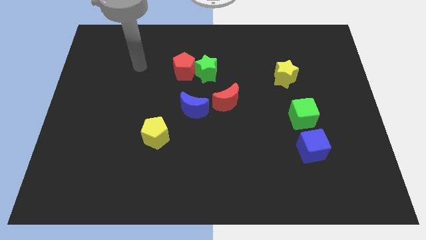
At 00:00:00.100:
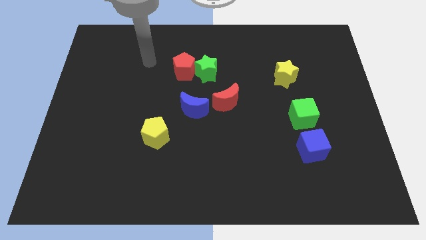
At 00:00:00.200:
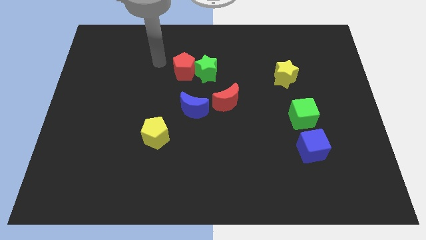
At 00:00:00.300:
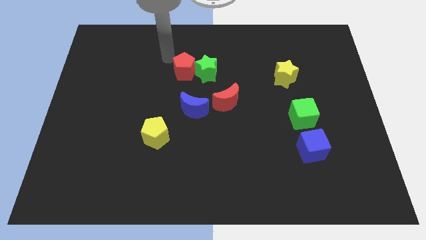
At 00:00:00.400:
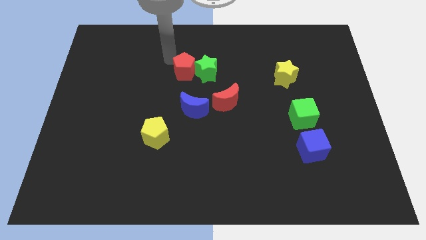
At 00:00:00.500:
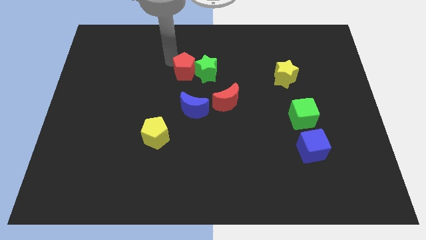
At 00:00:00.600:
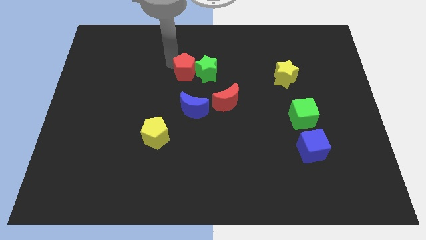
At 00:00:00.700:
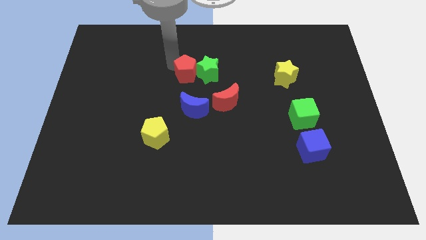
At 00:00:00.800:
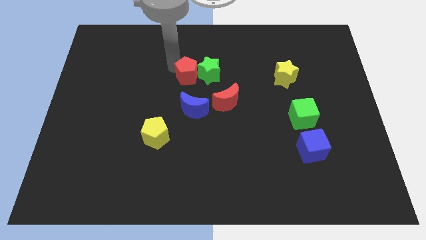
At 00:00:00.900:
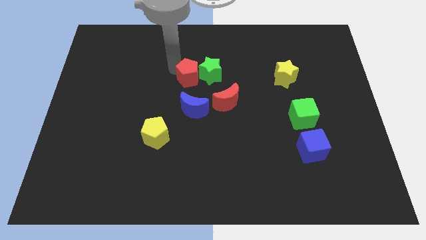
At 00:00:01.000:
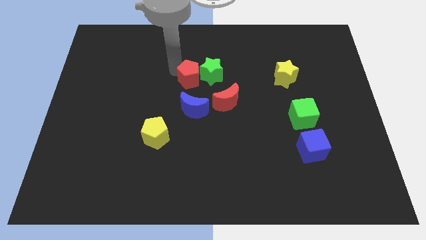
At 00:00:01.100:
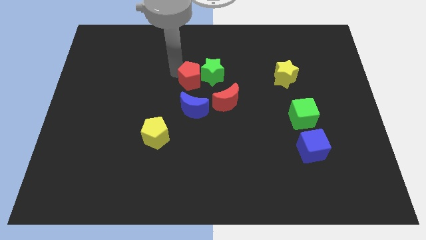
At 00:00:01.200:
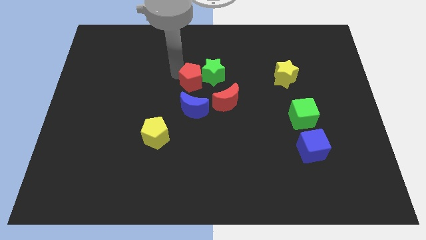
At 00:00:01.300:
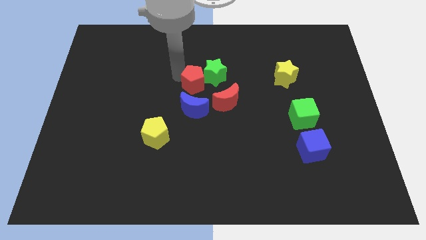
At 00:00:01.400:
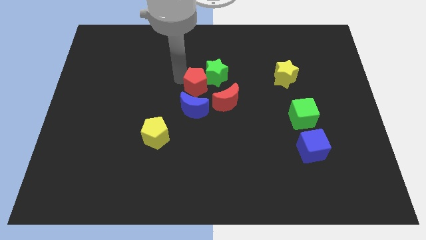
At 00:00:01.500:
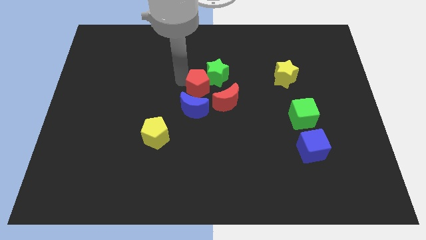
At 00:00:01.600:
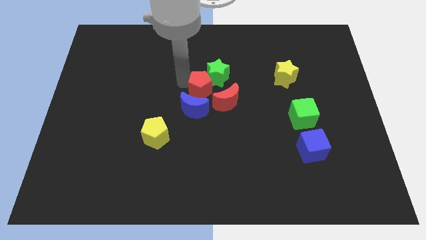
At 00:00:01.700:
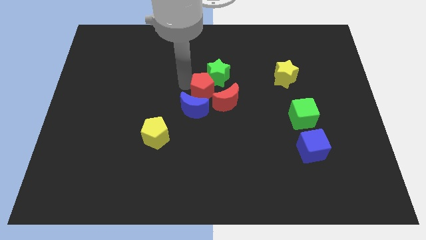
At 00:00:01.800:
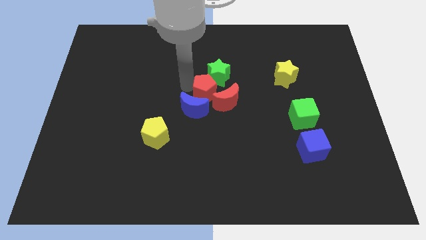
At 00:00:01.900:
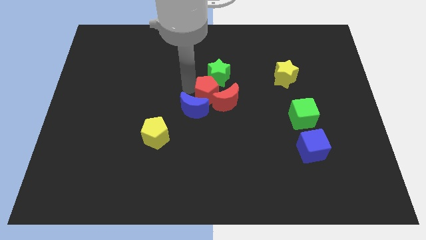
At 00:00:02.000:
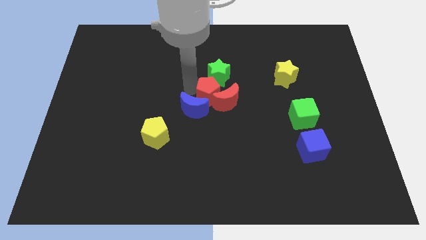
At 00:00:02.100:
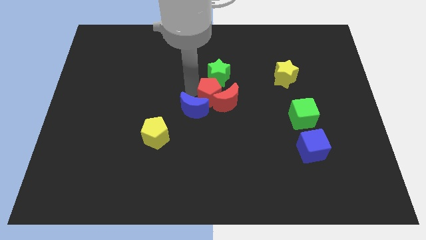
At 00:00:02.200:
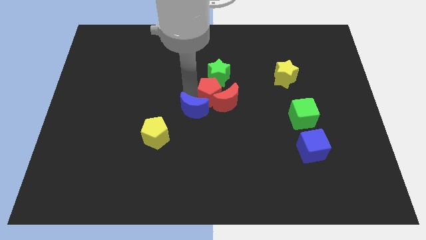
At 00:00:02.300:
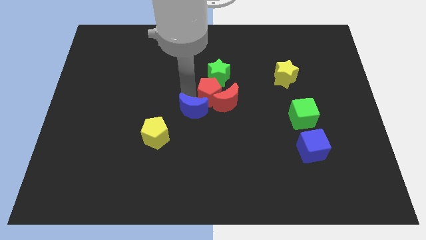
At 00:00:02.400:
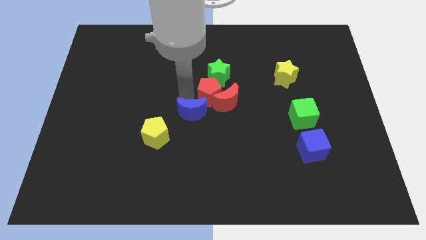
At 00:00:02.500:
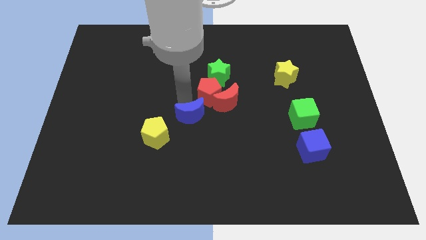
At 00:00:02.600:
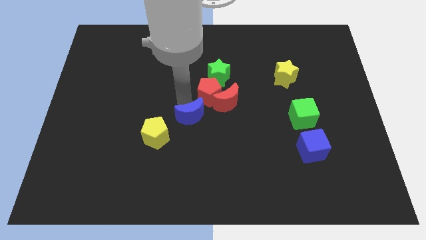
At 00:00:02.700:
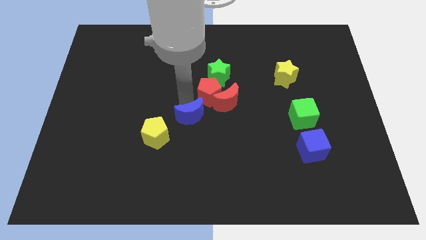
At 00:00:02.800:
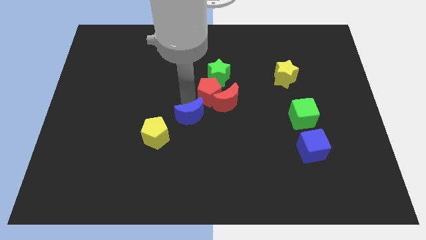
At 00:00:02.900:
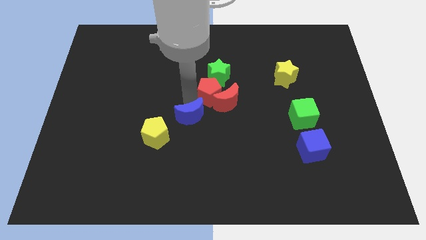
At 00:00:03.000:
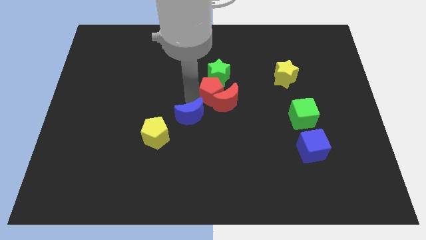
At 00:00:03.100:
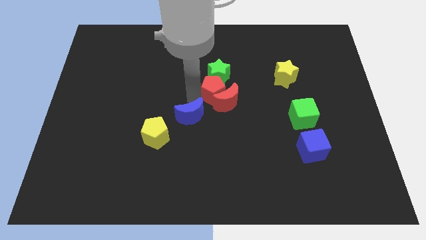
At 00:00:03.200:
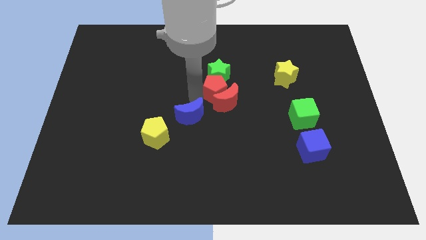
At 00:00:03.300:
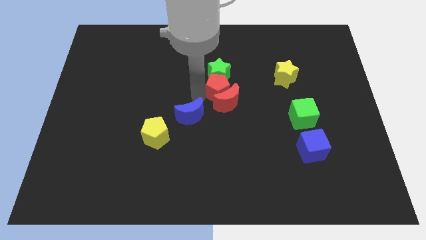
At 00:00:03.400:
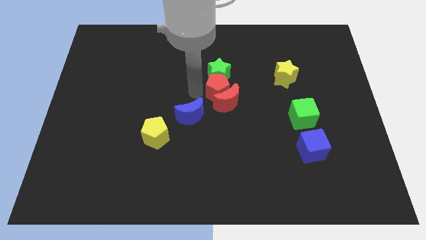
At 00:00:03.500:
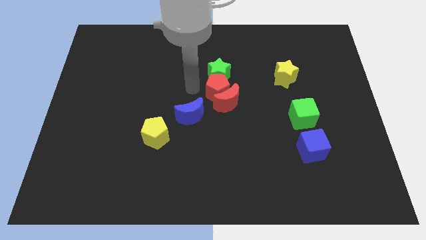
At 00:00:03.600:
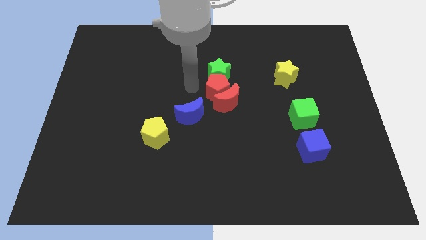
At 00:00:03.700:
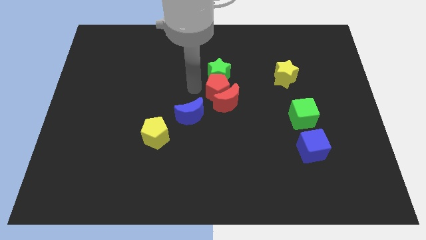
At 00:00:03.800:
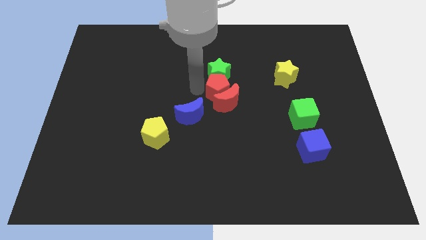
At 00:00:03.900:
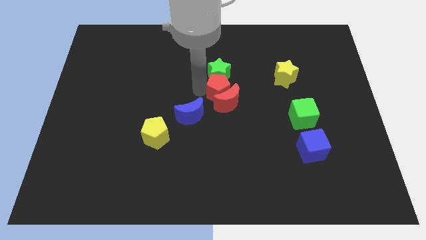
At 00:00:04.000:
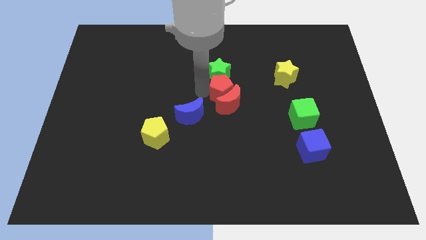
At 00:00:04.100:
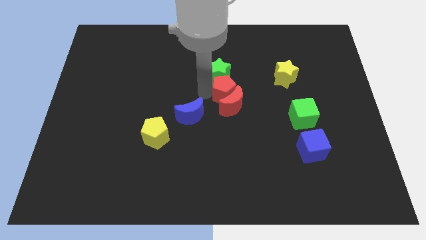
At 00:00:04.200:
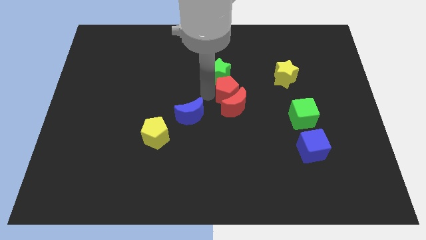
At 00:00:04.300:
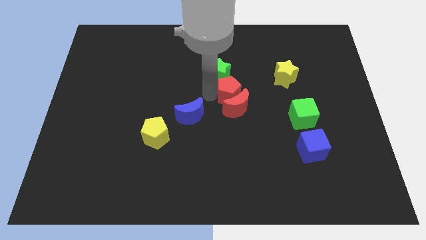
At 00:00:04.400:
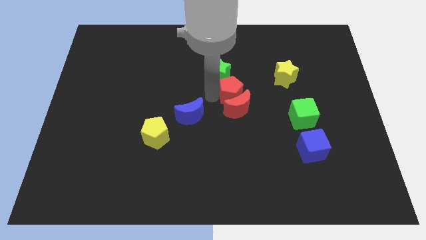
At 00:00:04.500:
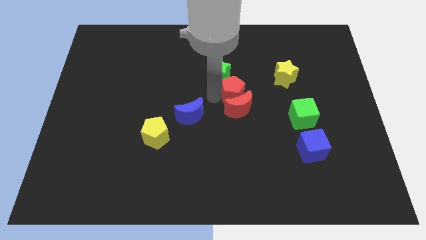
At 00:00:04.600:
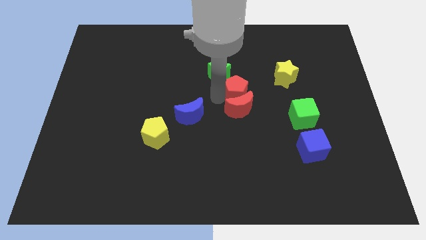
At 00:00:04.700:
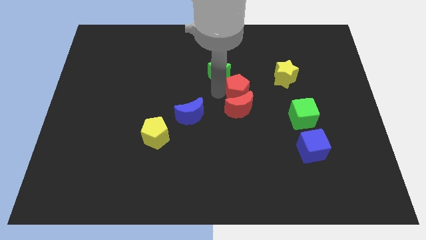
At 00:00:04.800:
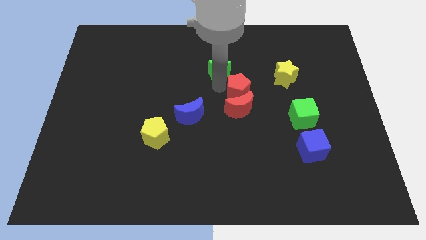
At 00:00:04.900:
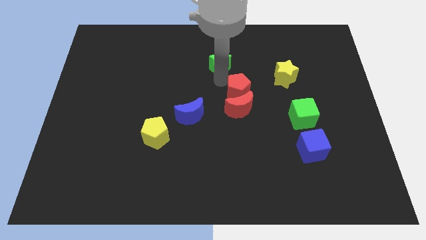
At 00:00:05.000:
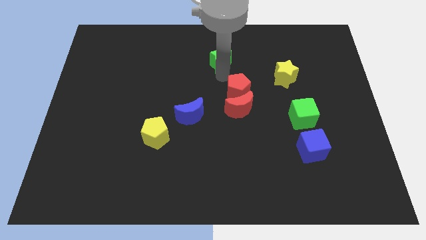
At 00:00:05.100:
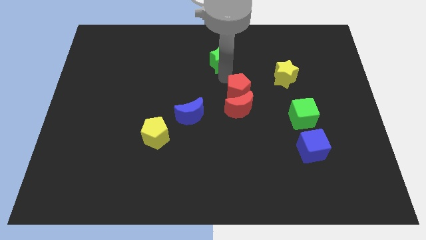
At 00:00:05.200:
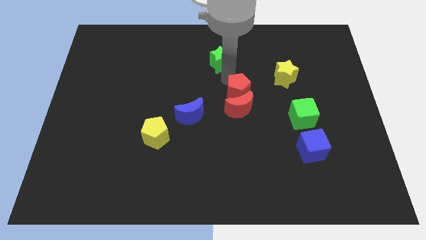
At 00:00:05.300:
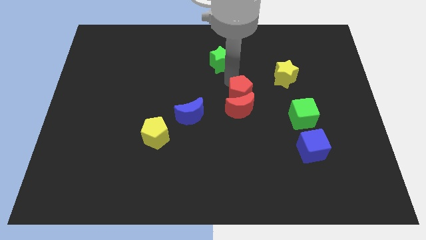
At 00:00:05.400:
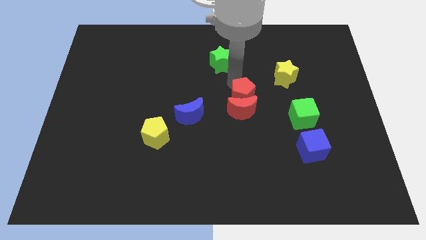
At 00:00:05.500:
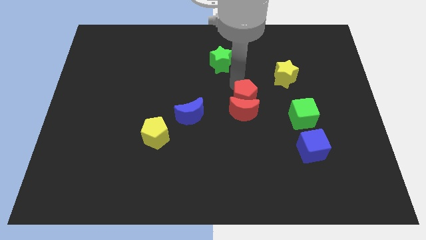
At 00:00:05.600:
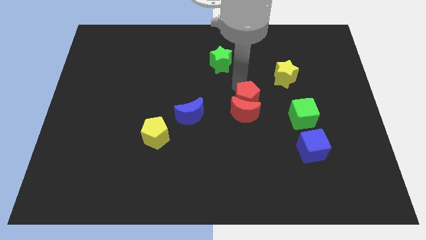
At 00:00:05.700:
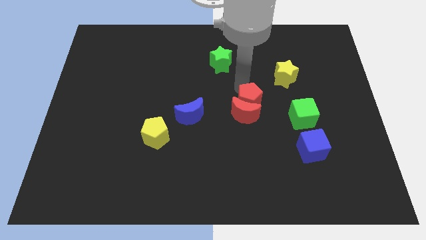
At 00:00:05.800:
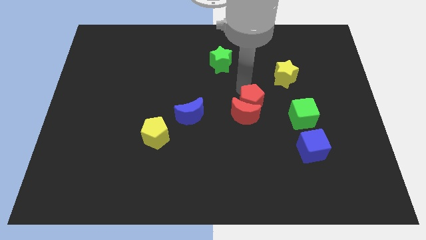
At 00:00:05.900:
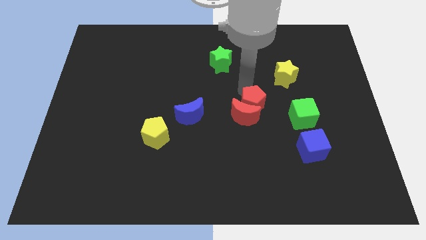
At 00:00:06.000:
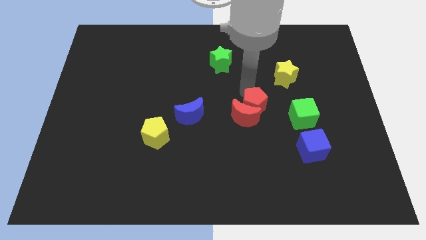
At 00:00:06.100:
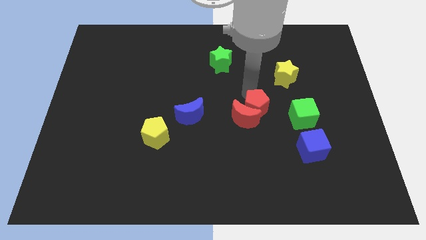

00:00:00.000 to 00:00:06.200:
move the red pentagon downwards and right

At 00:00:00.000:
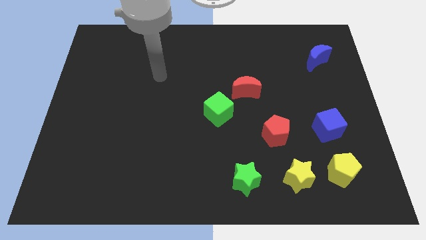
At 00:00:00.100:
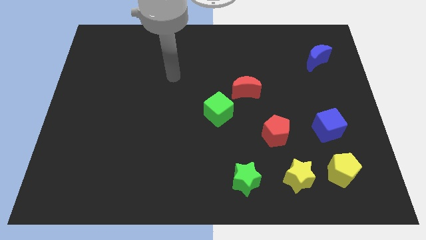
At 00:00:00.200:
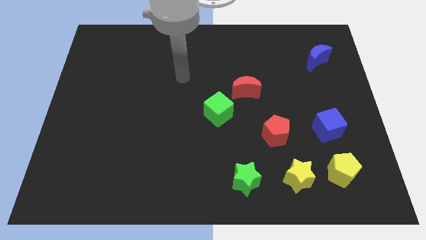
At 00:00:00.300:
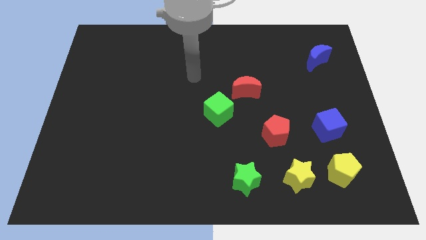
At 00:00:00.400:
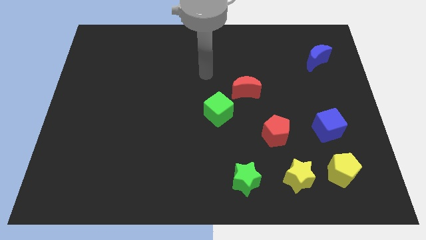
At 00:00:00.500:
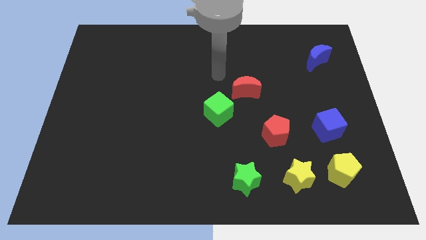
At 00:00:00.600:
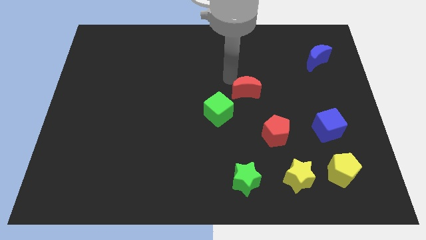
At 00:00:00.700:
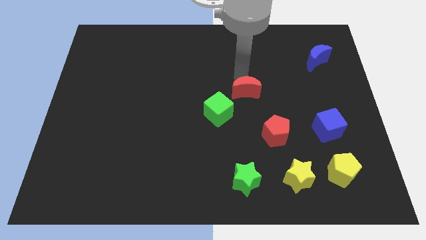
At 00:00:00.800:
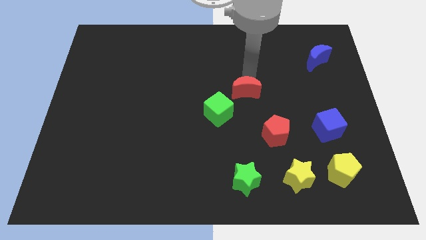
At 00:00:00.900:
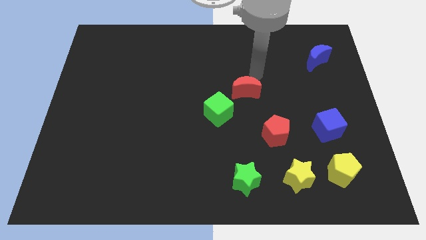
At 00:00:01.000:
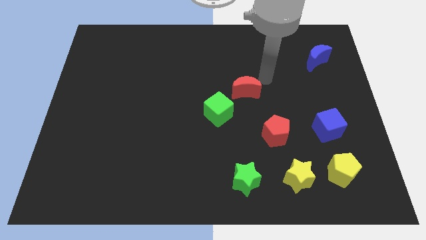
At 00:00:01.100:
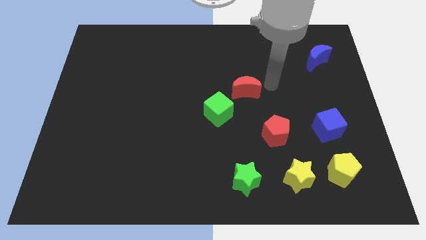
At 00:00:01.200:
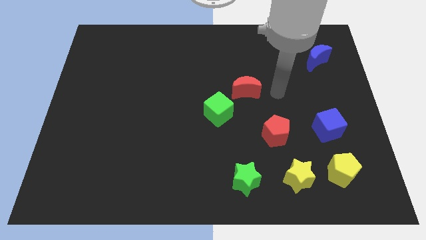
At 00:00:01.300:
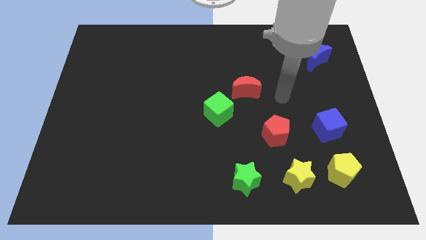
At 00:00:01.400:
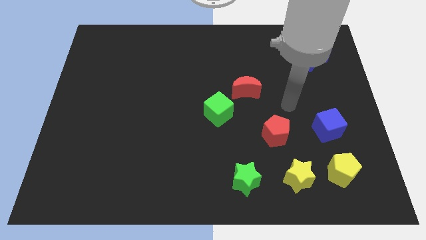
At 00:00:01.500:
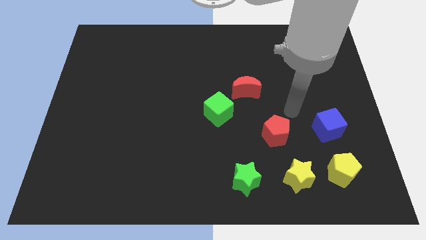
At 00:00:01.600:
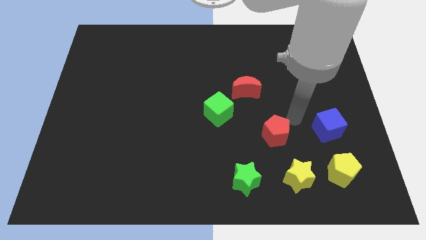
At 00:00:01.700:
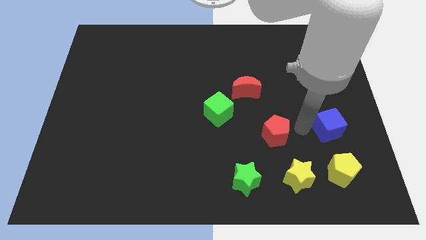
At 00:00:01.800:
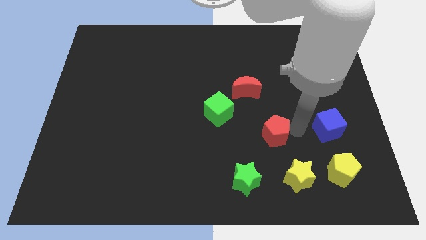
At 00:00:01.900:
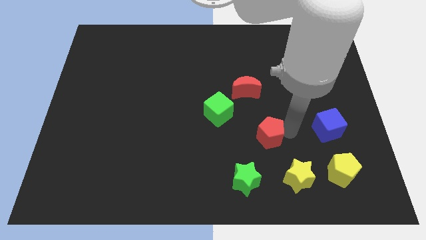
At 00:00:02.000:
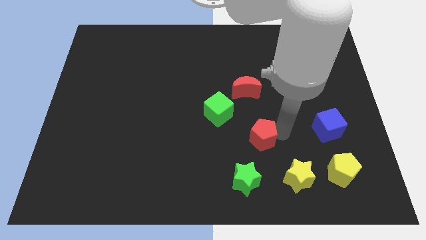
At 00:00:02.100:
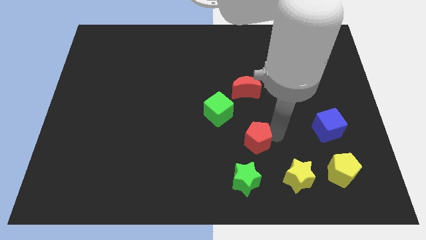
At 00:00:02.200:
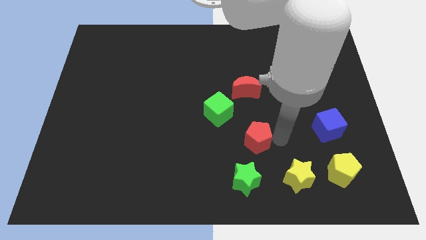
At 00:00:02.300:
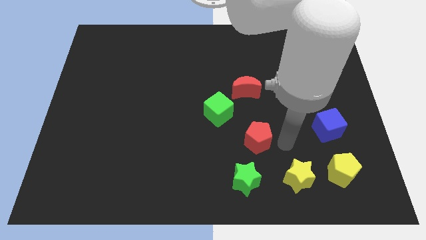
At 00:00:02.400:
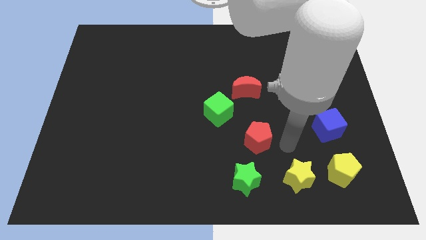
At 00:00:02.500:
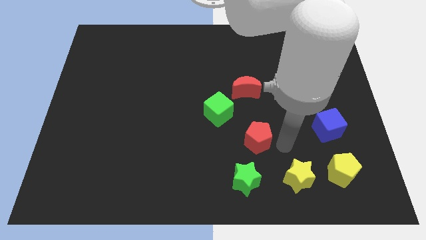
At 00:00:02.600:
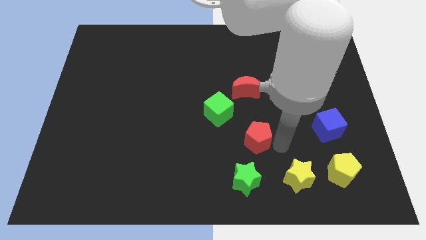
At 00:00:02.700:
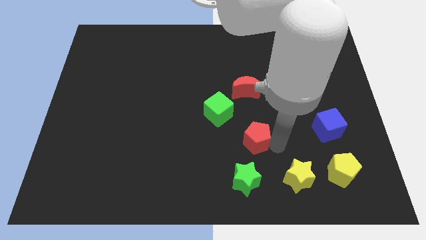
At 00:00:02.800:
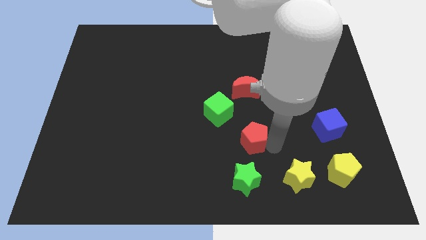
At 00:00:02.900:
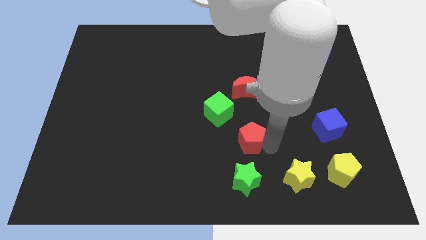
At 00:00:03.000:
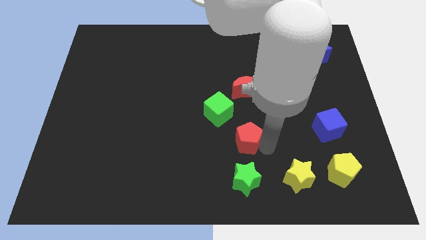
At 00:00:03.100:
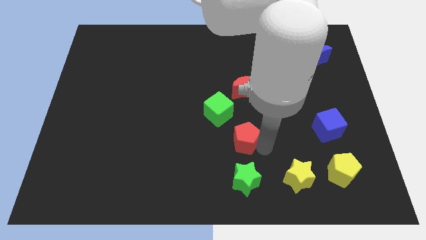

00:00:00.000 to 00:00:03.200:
push the red pentagon left a little bit
